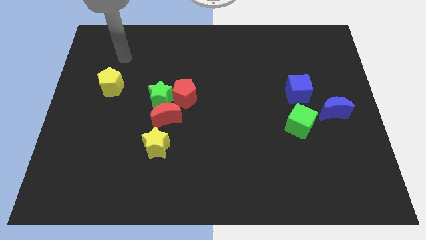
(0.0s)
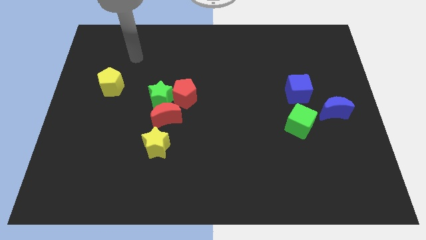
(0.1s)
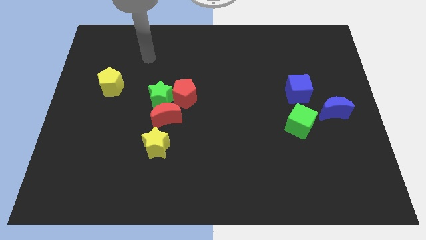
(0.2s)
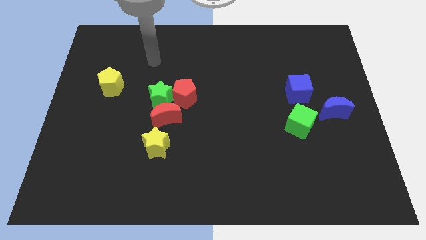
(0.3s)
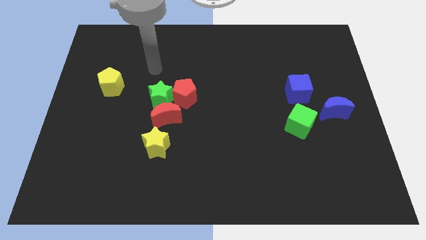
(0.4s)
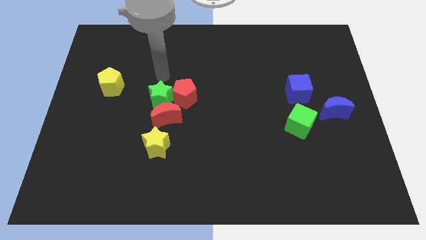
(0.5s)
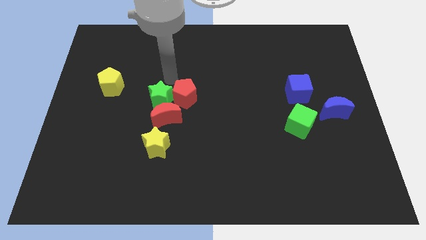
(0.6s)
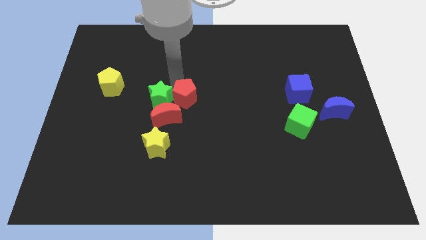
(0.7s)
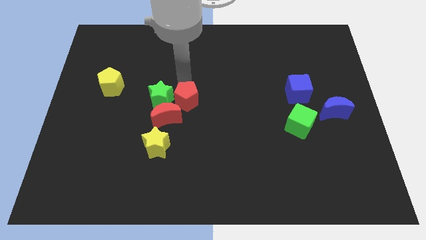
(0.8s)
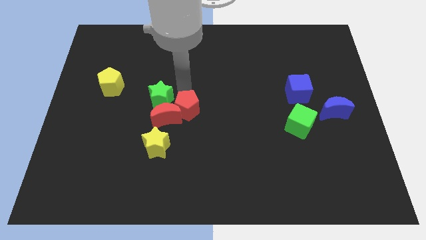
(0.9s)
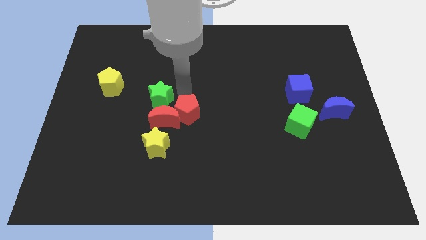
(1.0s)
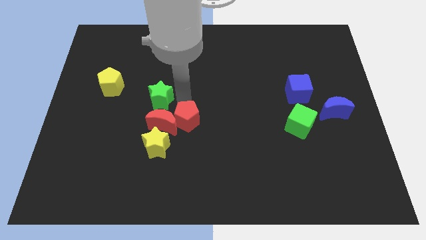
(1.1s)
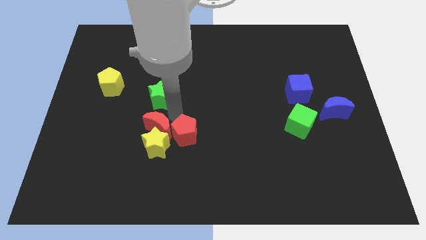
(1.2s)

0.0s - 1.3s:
pull the green star apart from the red pentagon and red moon

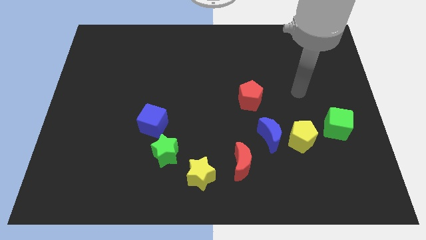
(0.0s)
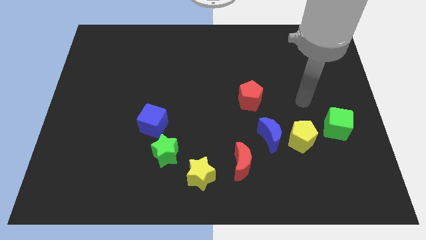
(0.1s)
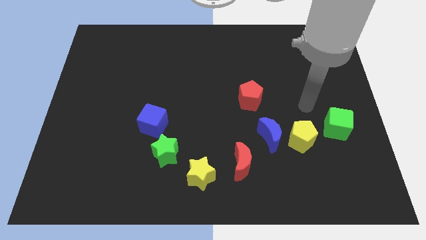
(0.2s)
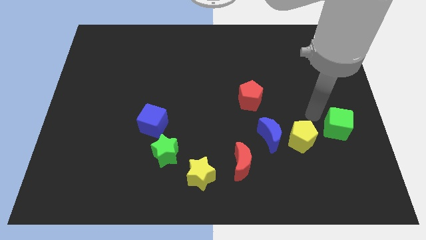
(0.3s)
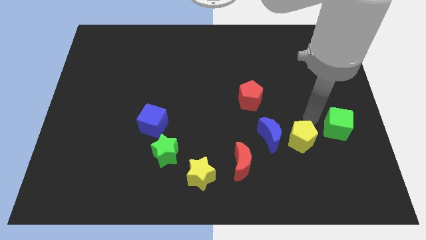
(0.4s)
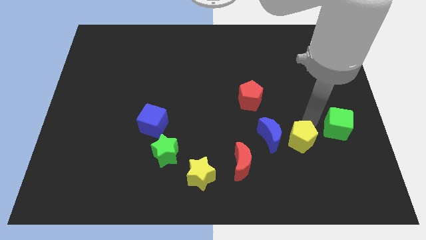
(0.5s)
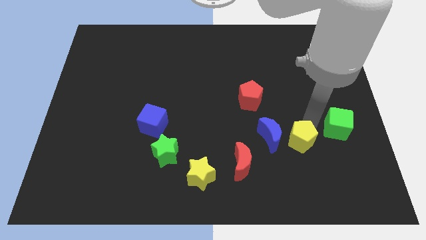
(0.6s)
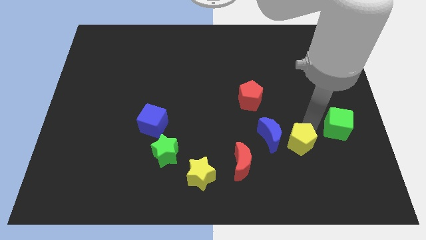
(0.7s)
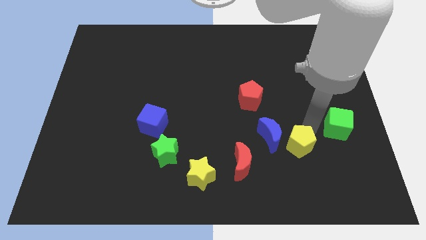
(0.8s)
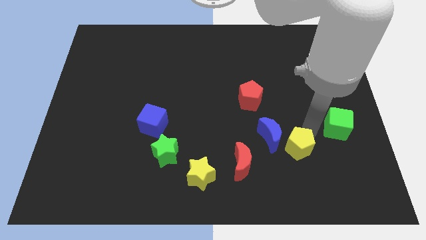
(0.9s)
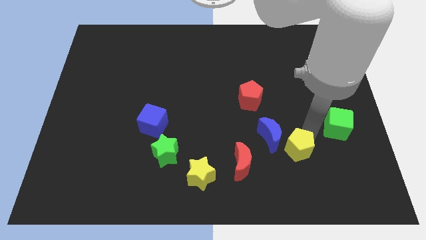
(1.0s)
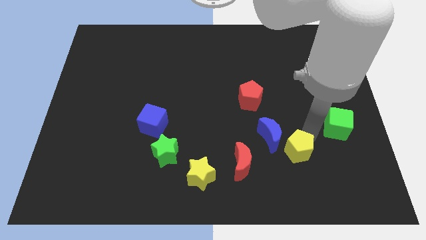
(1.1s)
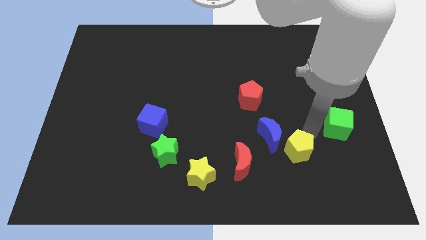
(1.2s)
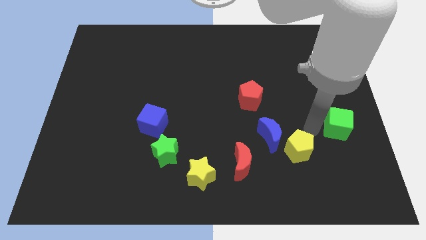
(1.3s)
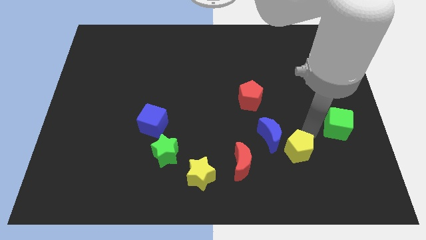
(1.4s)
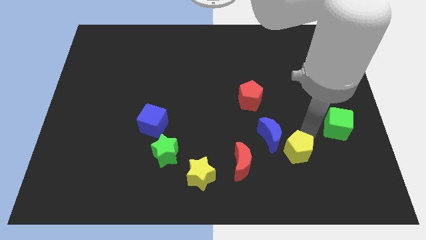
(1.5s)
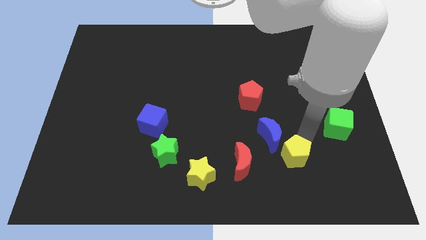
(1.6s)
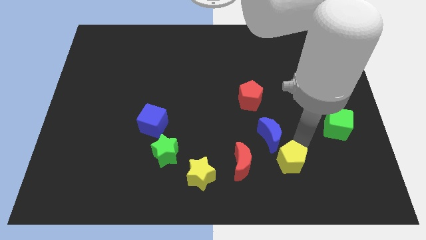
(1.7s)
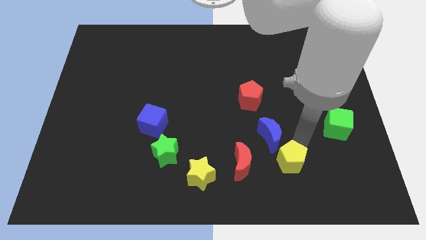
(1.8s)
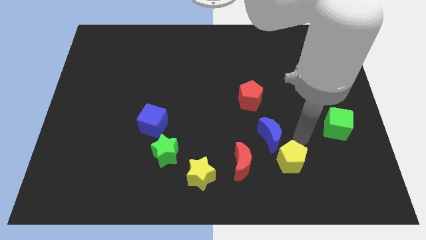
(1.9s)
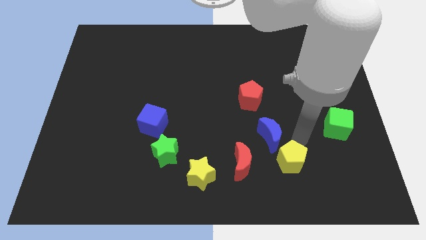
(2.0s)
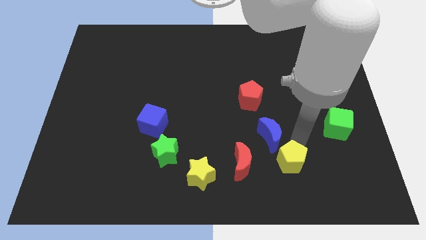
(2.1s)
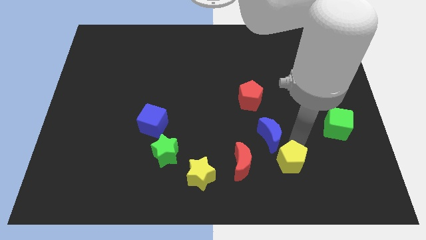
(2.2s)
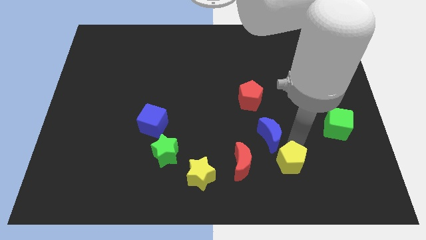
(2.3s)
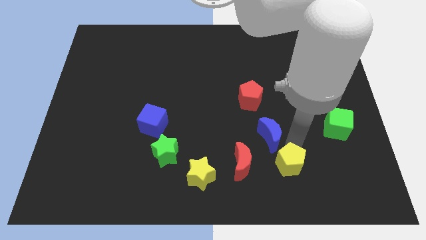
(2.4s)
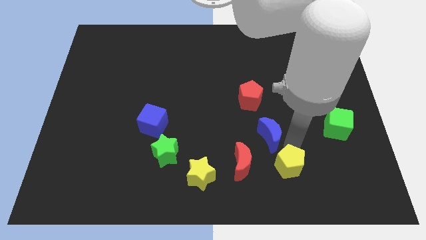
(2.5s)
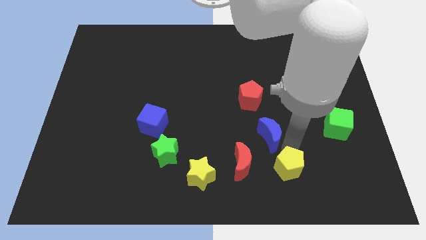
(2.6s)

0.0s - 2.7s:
separate the yellow pentagon from the blue moon and green cube

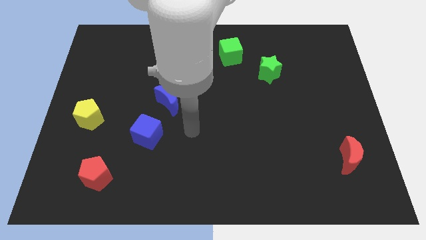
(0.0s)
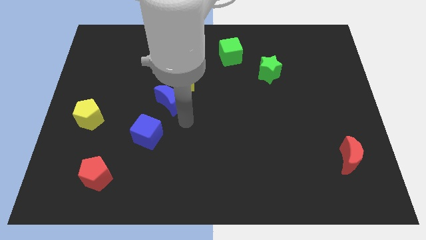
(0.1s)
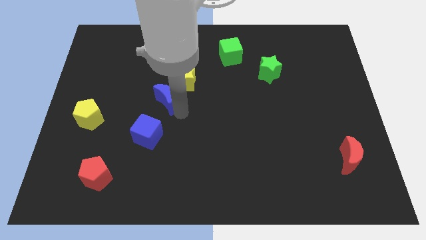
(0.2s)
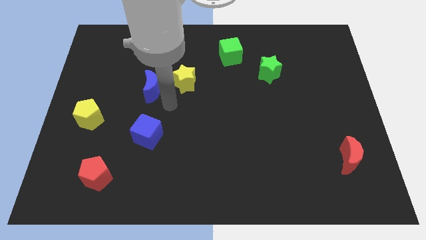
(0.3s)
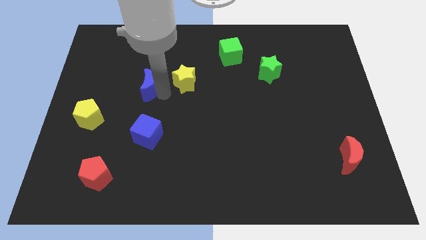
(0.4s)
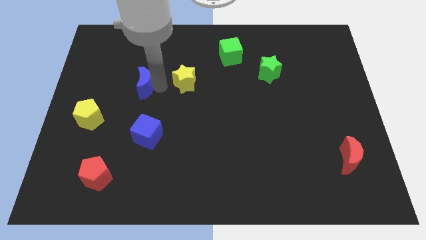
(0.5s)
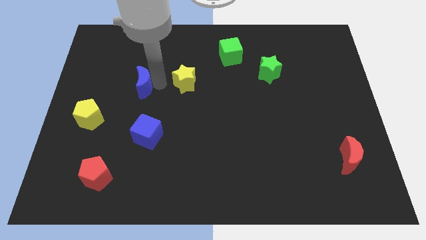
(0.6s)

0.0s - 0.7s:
separate the yellow star from the blue moon

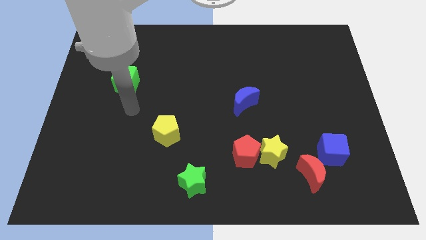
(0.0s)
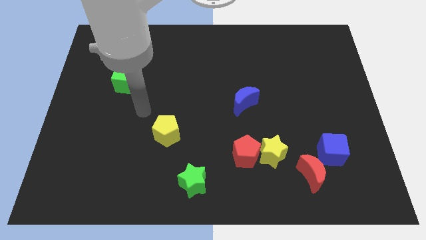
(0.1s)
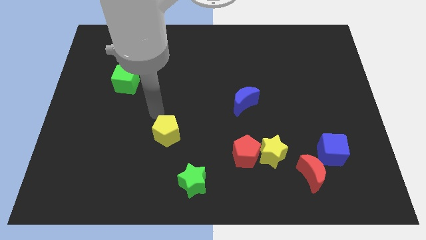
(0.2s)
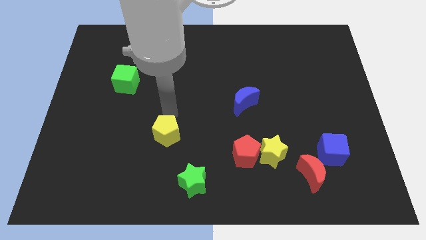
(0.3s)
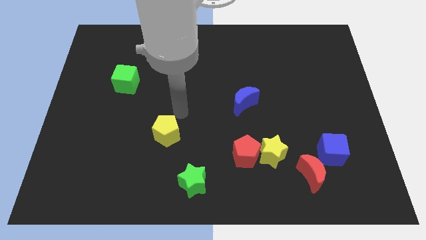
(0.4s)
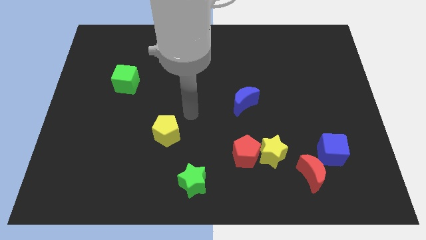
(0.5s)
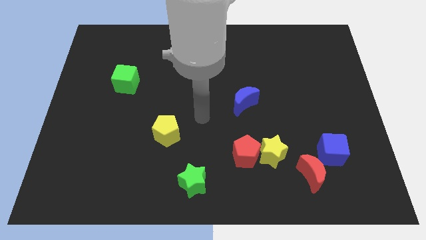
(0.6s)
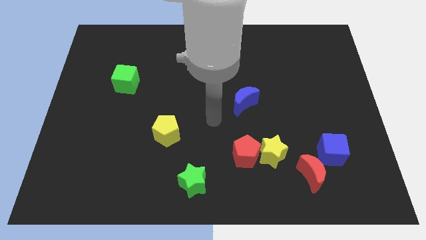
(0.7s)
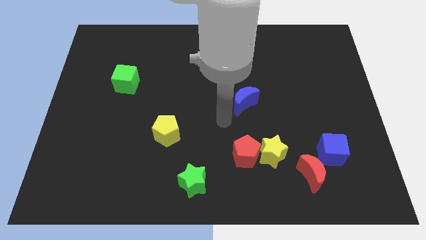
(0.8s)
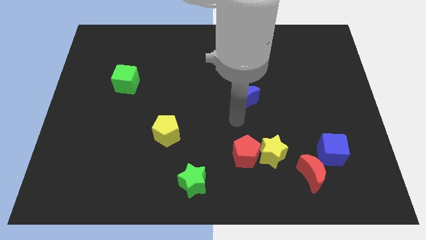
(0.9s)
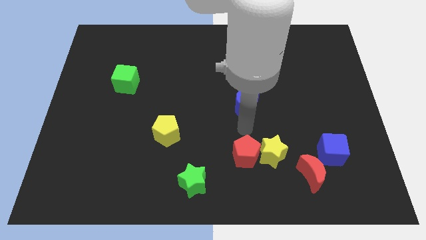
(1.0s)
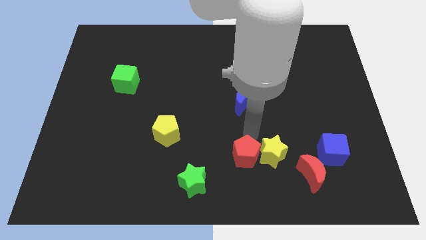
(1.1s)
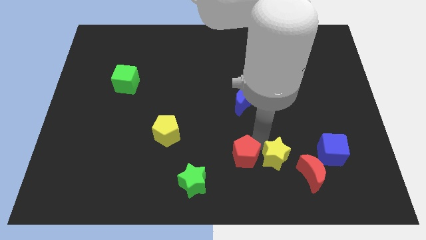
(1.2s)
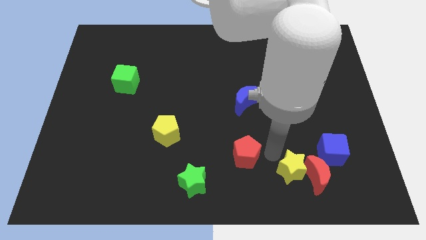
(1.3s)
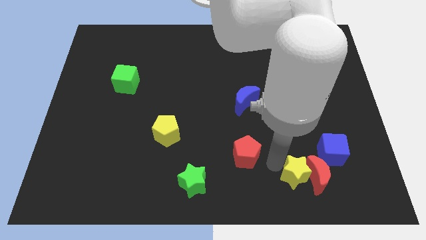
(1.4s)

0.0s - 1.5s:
pull the red pentagon apart from the yellow star

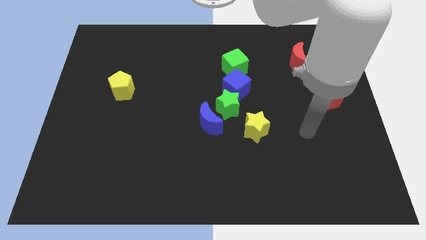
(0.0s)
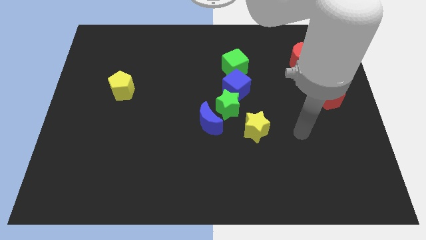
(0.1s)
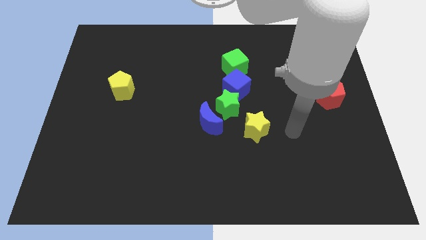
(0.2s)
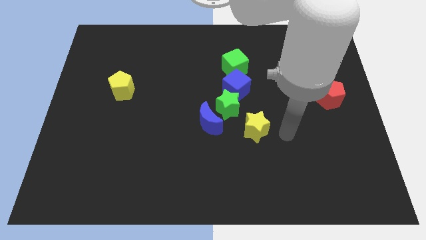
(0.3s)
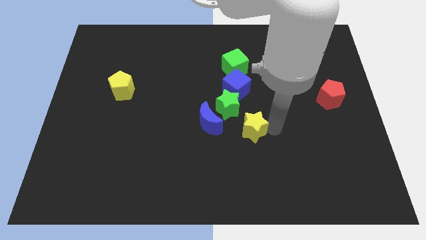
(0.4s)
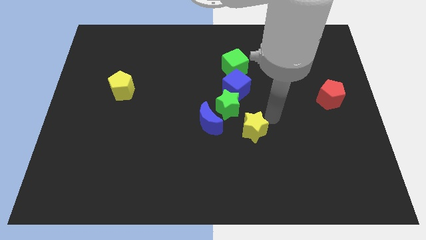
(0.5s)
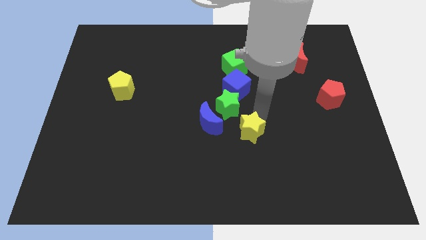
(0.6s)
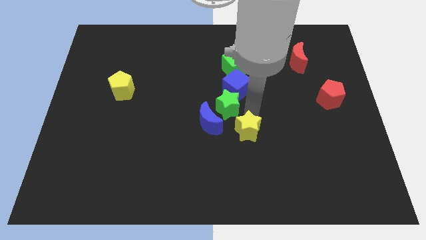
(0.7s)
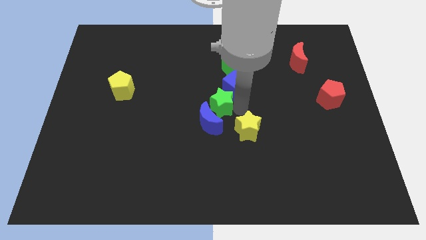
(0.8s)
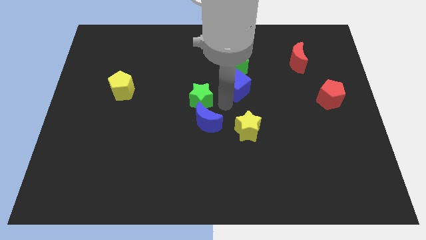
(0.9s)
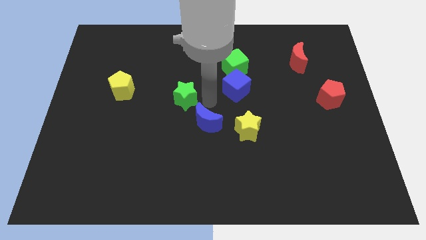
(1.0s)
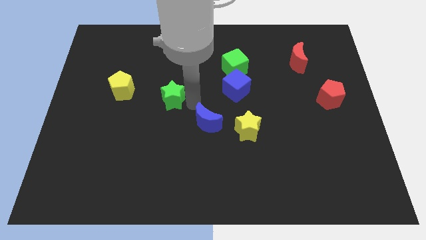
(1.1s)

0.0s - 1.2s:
pull the blue moon apart from the green star

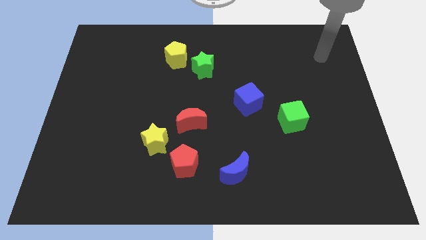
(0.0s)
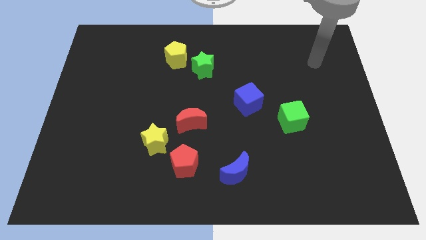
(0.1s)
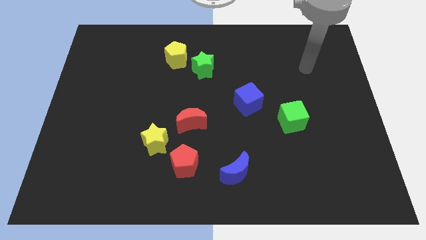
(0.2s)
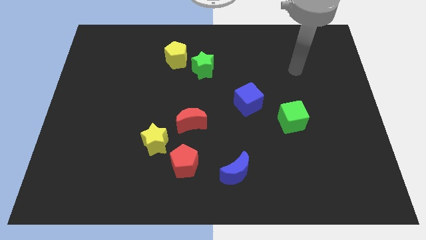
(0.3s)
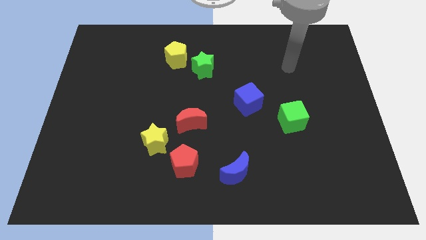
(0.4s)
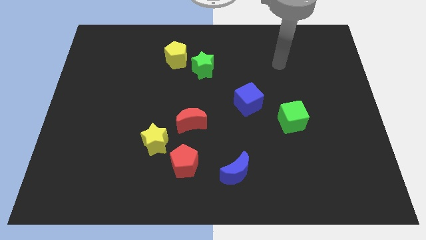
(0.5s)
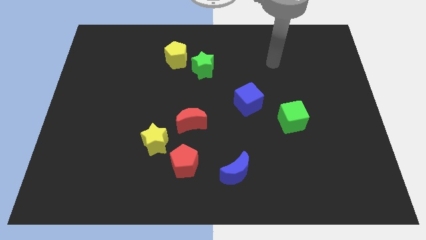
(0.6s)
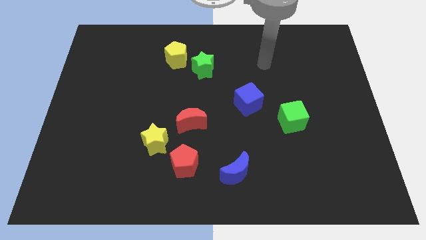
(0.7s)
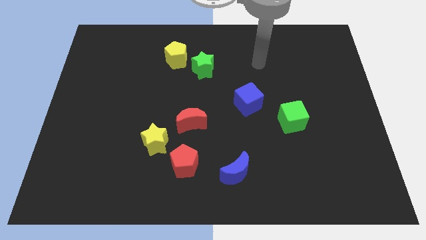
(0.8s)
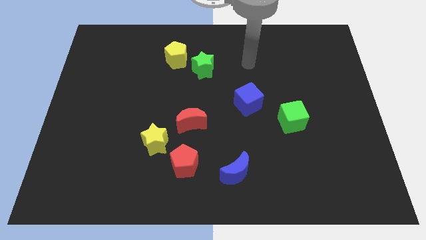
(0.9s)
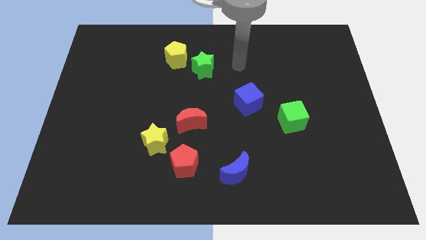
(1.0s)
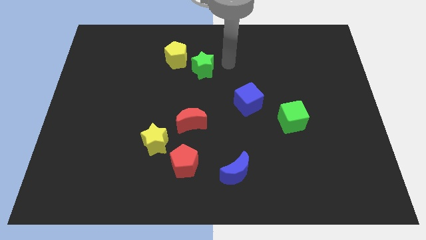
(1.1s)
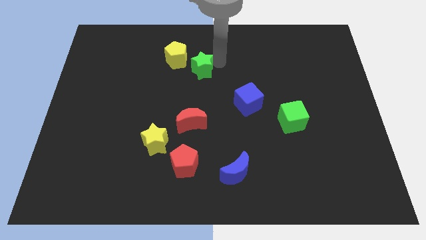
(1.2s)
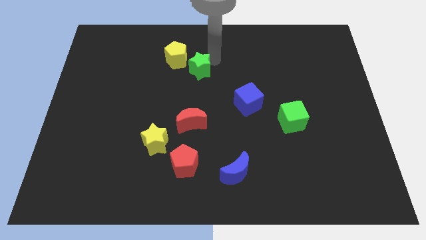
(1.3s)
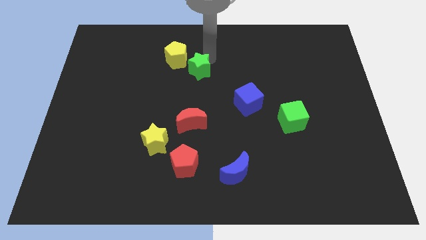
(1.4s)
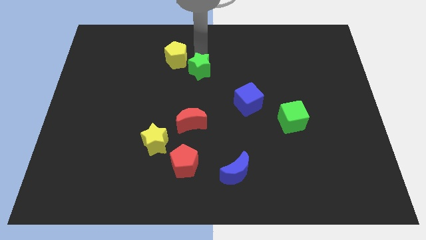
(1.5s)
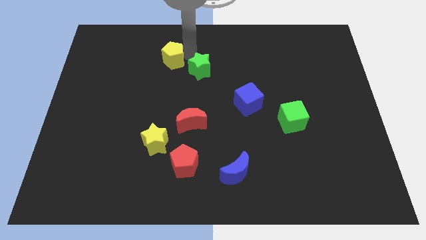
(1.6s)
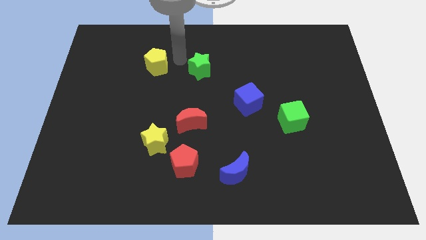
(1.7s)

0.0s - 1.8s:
separate the green star from the yellow pentagon

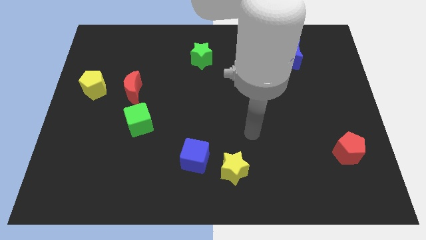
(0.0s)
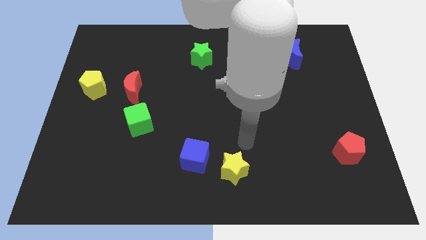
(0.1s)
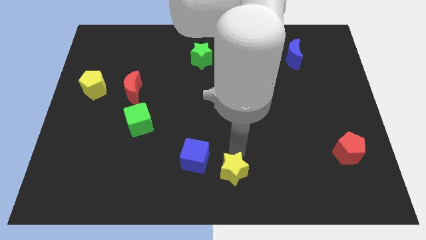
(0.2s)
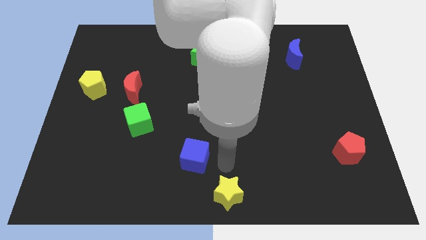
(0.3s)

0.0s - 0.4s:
separate the blue cube from the yellow star
